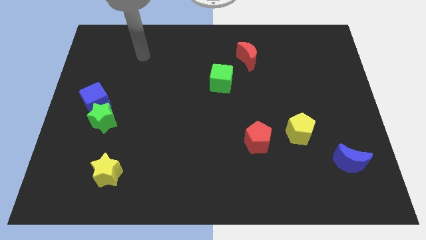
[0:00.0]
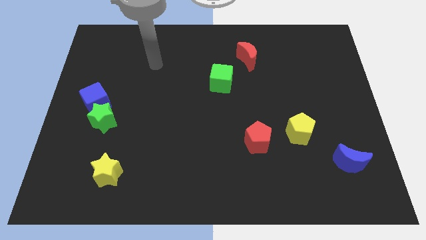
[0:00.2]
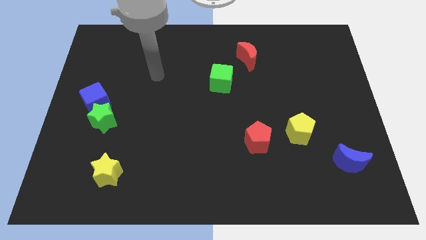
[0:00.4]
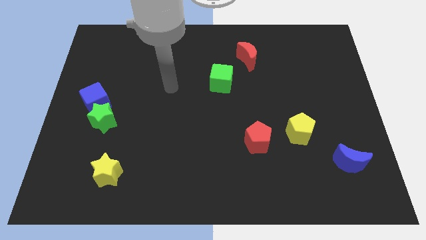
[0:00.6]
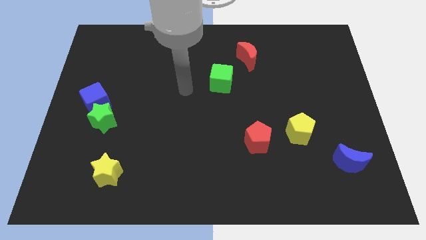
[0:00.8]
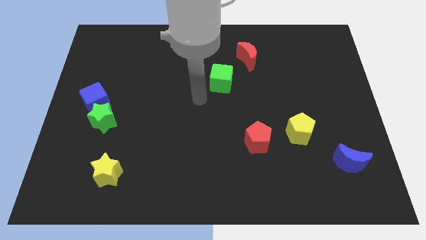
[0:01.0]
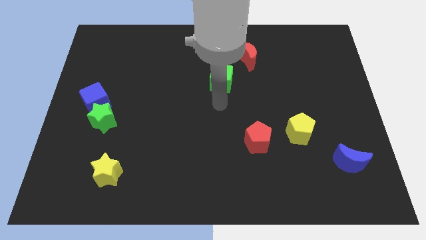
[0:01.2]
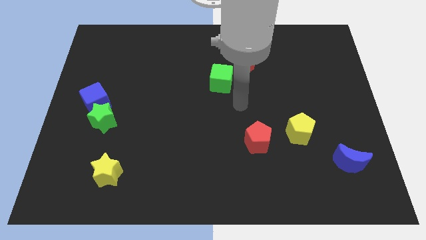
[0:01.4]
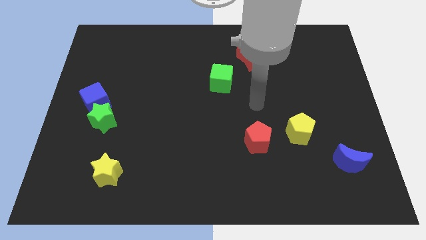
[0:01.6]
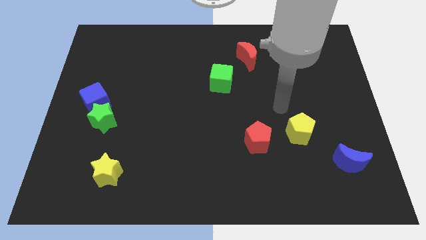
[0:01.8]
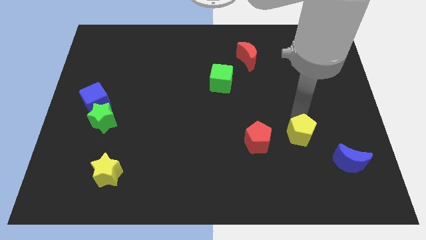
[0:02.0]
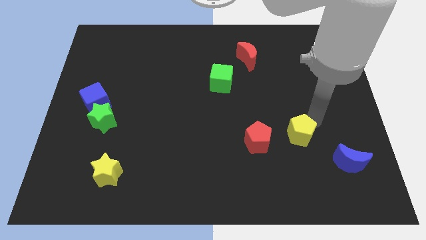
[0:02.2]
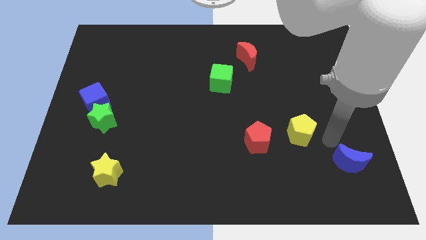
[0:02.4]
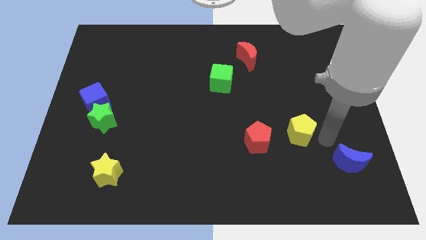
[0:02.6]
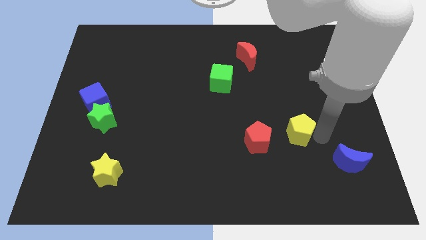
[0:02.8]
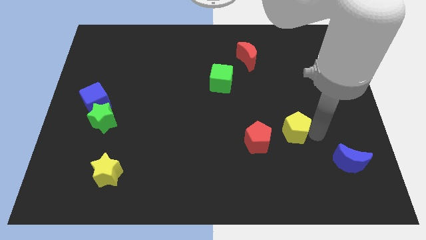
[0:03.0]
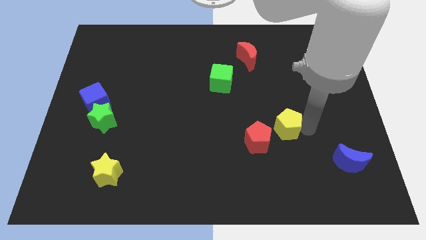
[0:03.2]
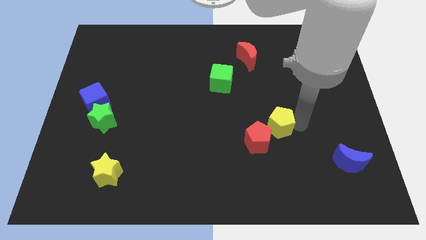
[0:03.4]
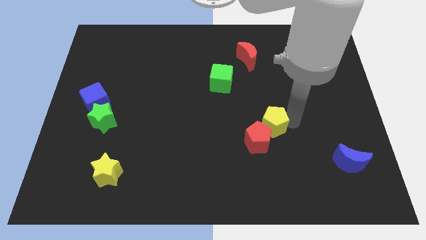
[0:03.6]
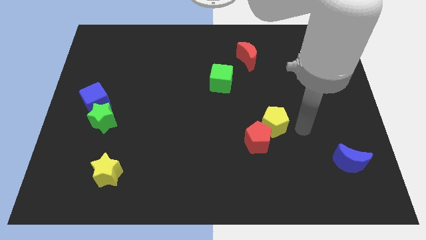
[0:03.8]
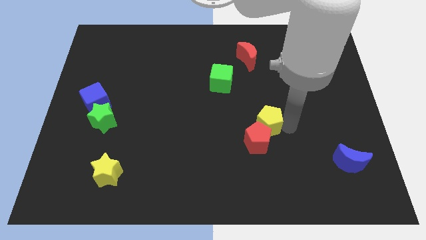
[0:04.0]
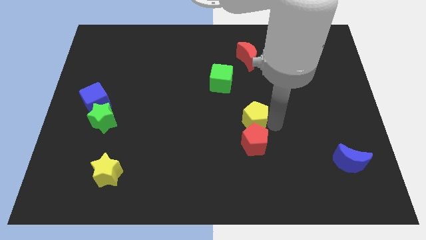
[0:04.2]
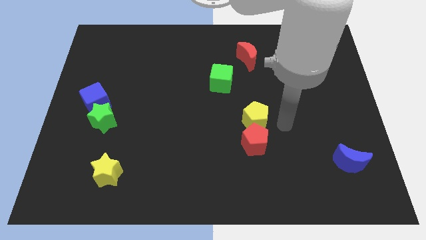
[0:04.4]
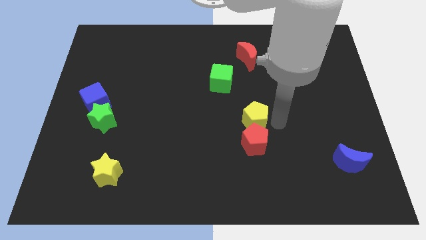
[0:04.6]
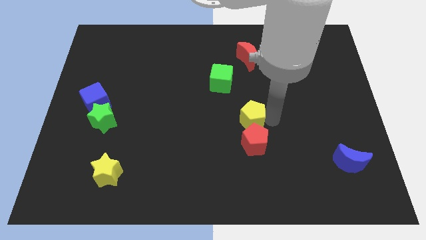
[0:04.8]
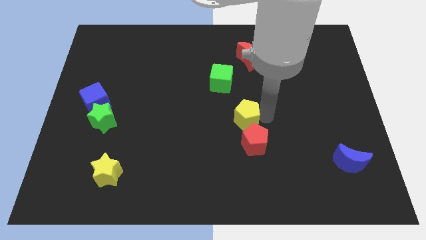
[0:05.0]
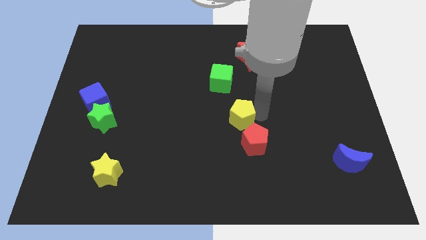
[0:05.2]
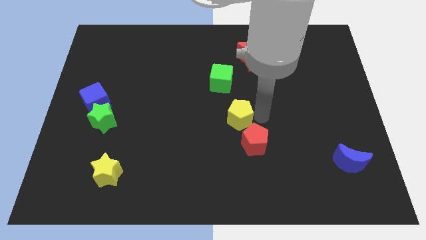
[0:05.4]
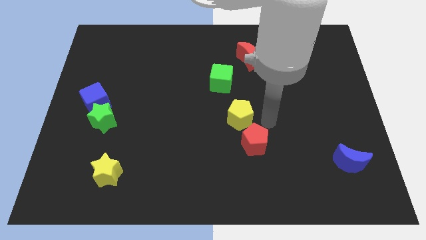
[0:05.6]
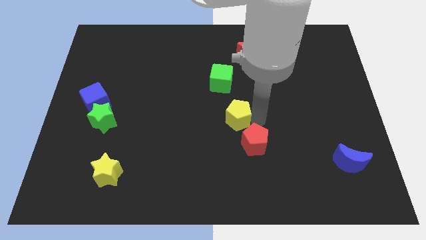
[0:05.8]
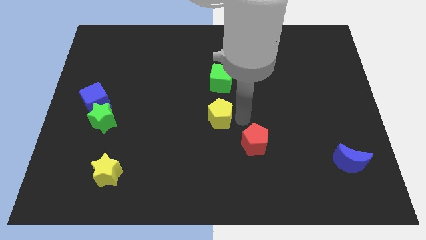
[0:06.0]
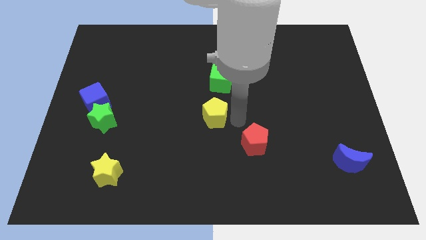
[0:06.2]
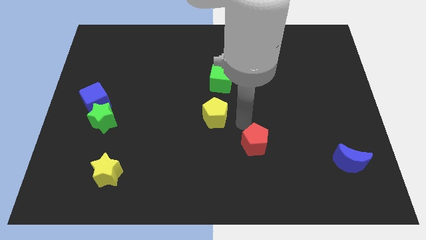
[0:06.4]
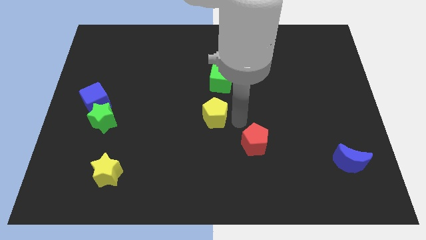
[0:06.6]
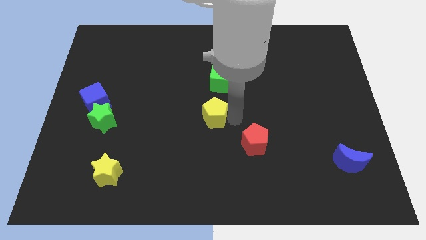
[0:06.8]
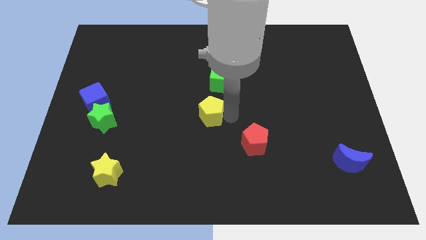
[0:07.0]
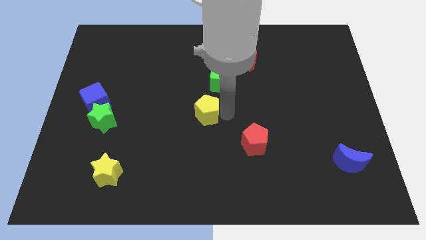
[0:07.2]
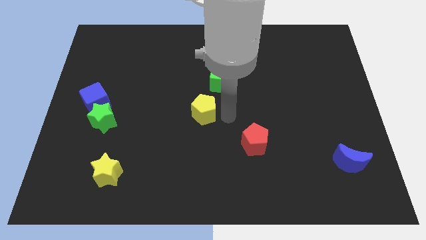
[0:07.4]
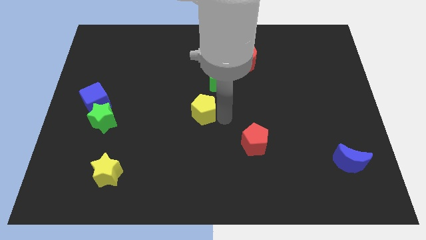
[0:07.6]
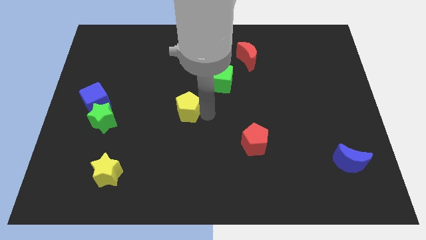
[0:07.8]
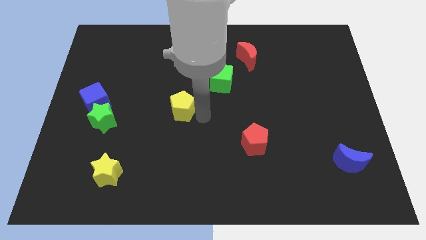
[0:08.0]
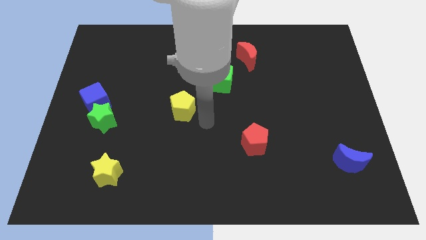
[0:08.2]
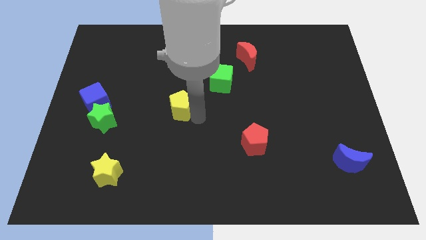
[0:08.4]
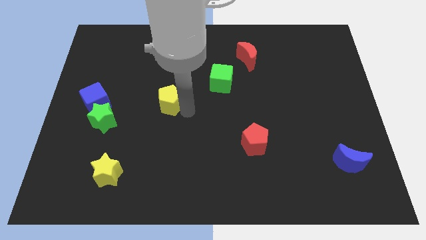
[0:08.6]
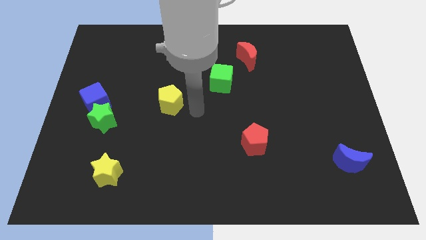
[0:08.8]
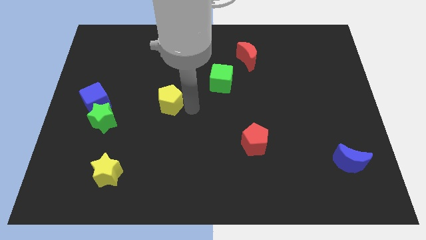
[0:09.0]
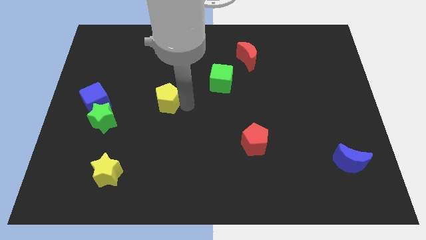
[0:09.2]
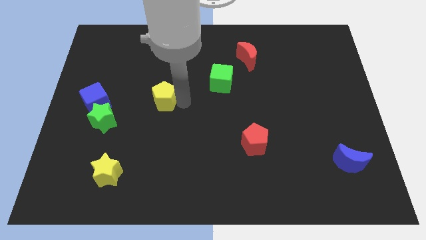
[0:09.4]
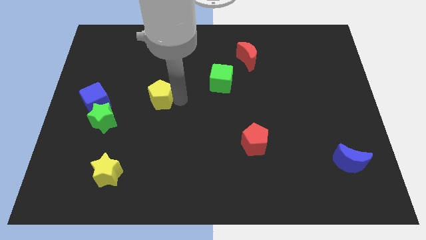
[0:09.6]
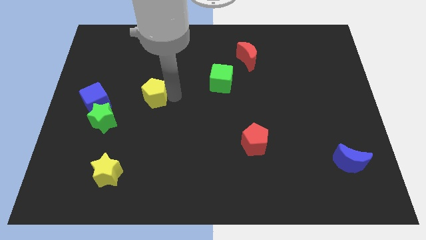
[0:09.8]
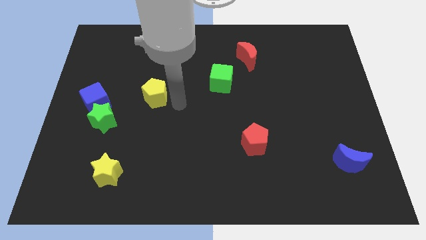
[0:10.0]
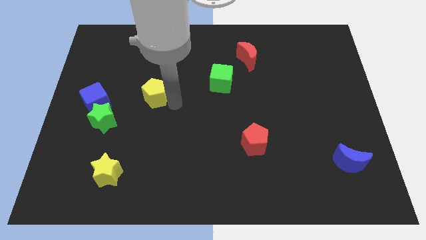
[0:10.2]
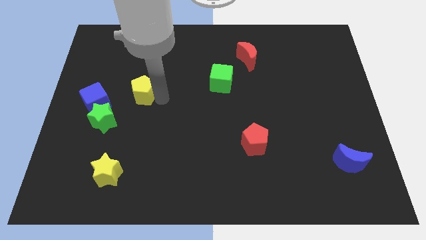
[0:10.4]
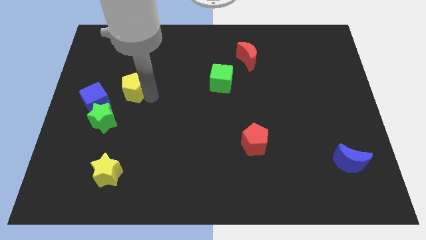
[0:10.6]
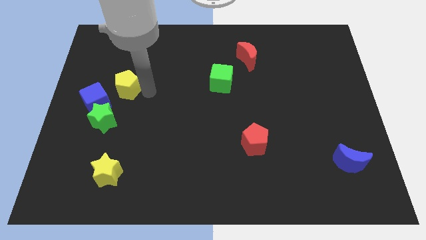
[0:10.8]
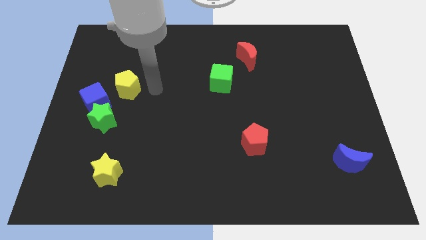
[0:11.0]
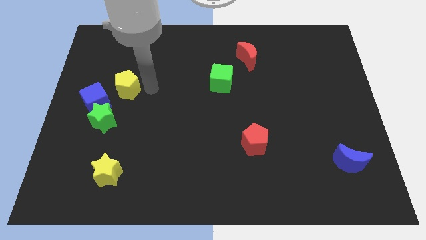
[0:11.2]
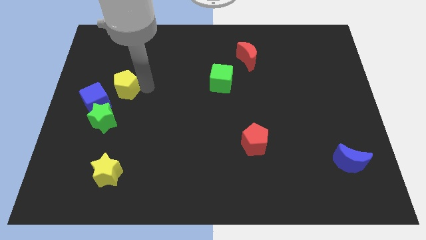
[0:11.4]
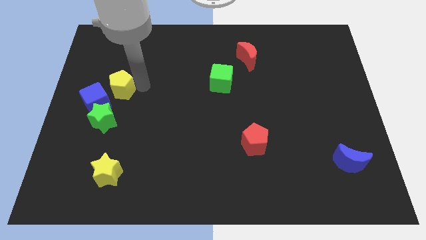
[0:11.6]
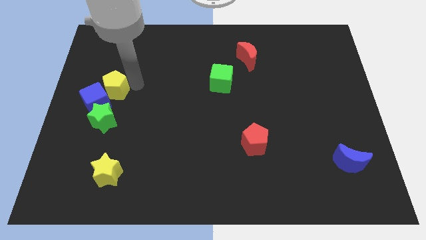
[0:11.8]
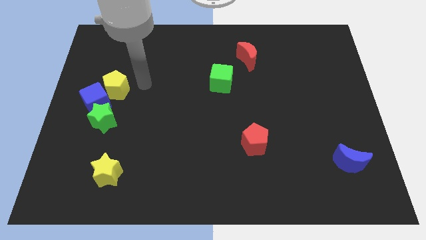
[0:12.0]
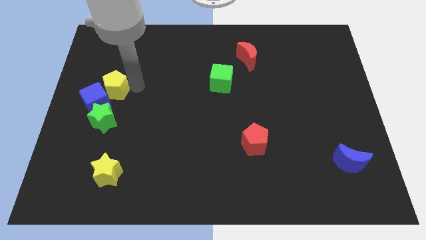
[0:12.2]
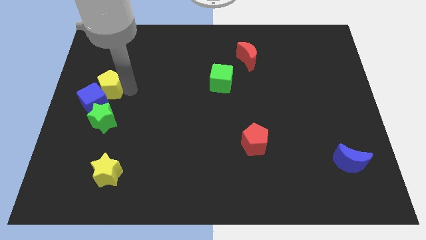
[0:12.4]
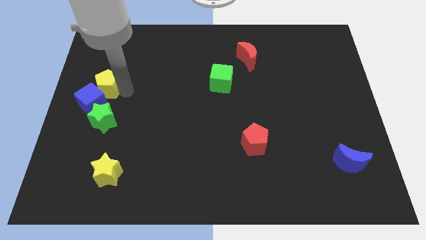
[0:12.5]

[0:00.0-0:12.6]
put the yellow pentagon to the left side of the board
